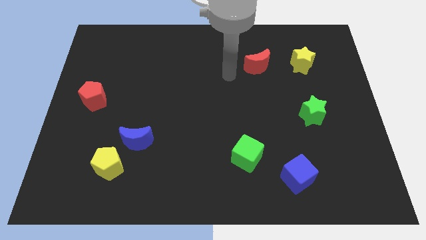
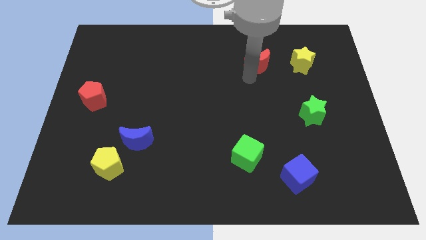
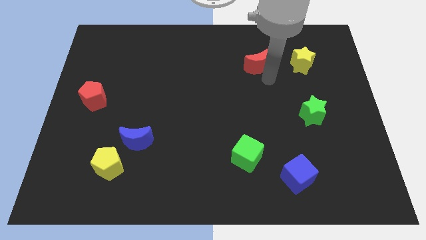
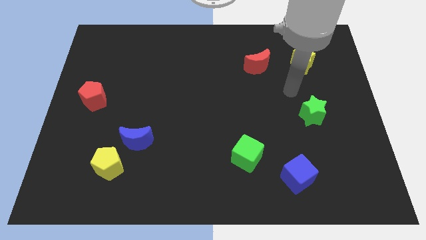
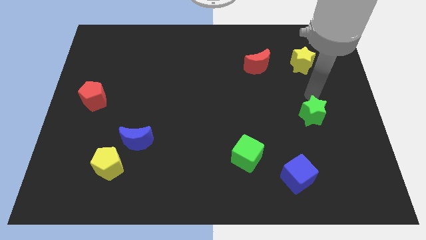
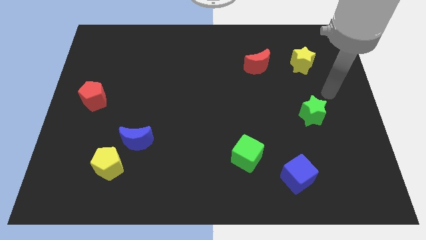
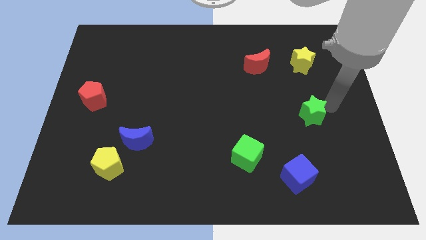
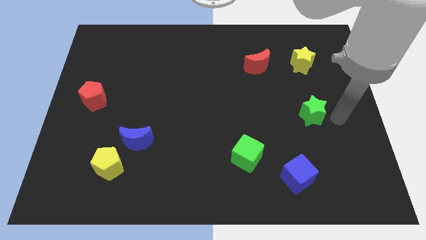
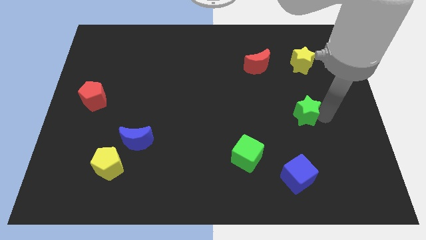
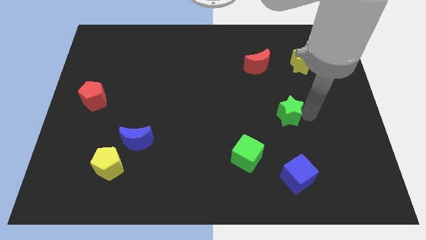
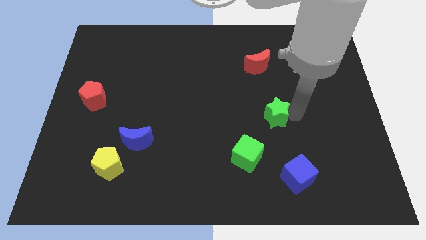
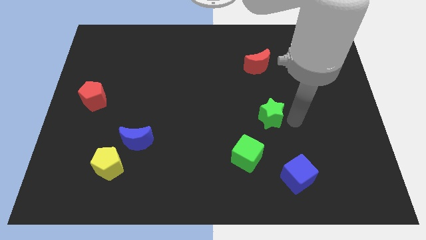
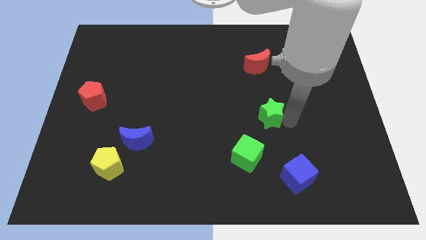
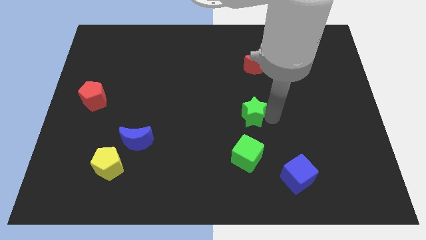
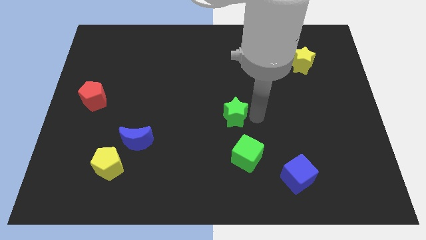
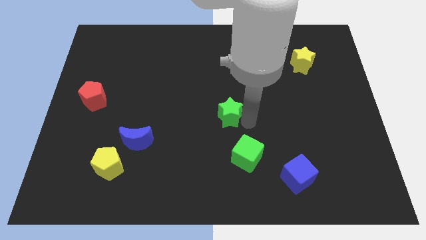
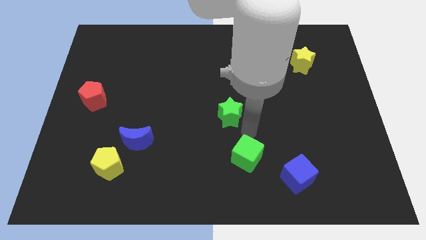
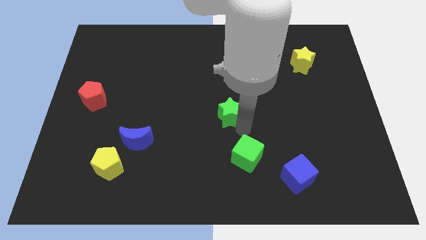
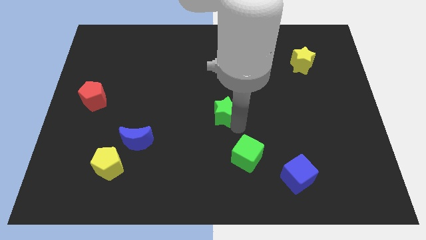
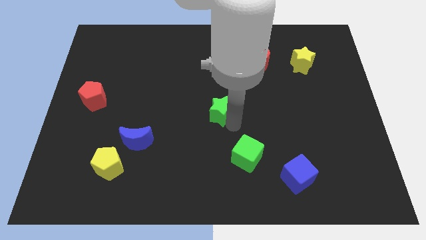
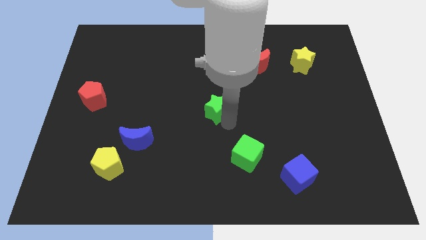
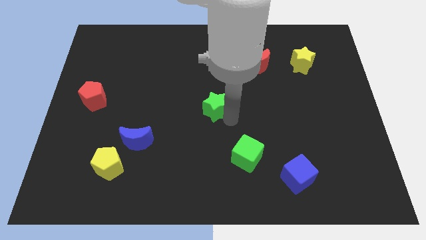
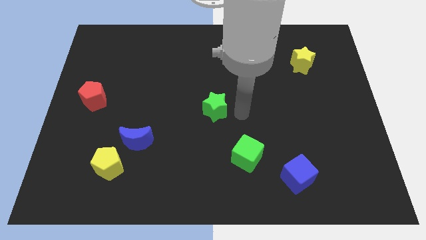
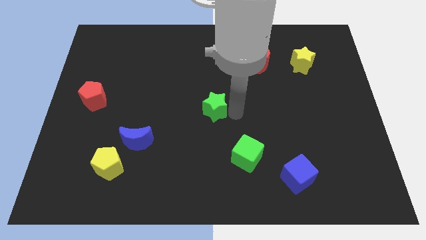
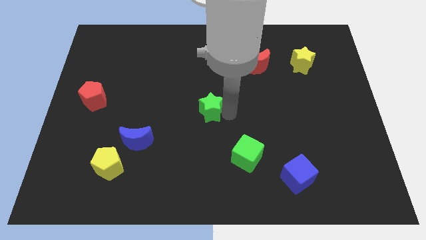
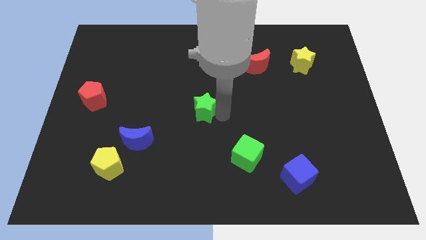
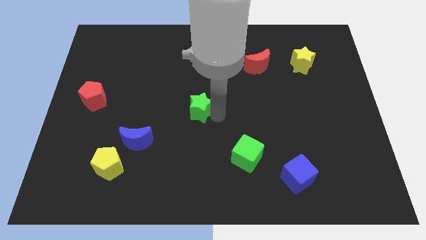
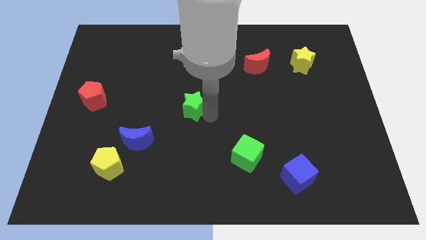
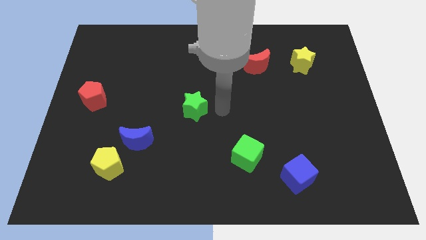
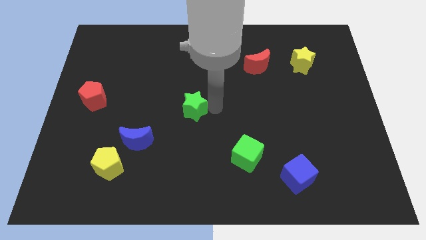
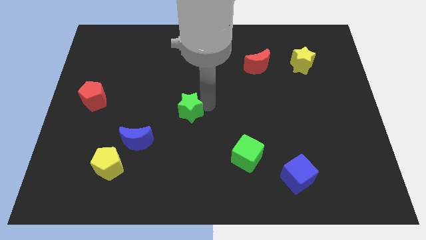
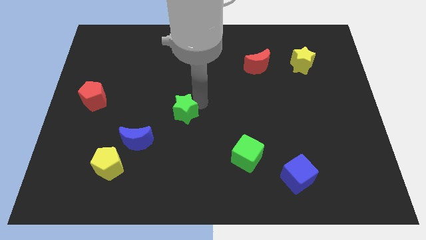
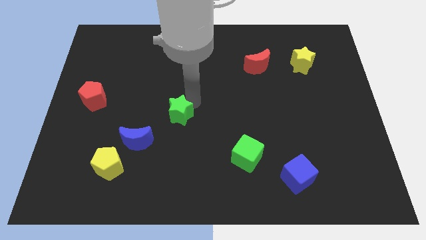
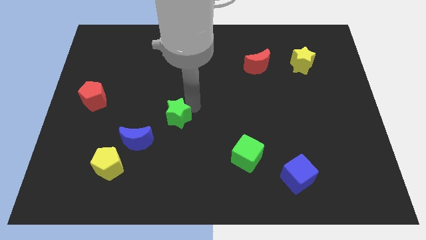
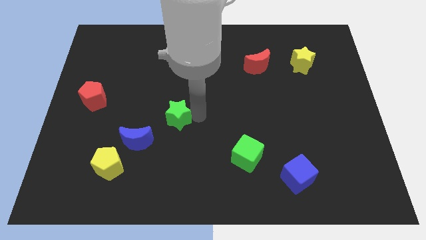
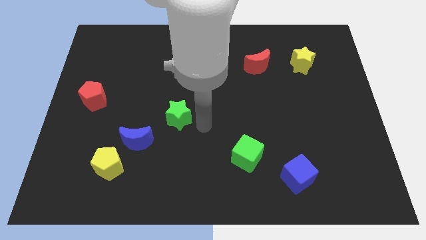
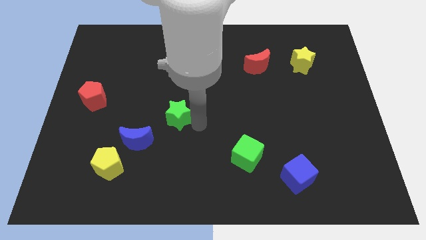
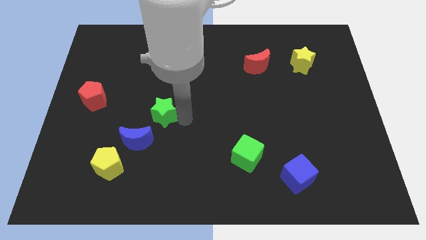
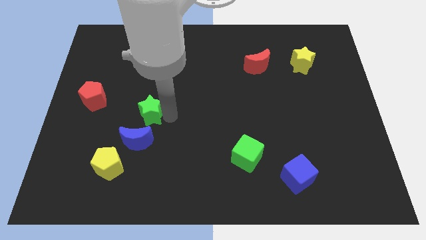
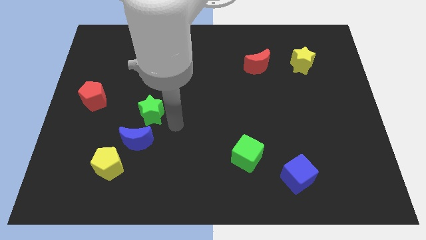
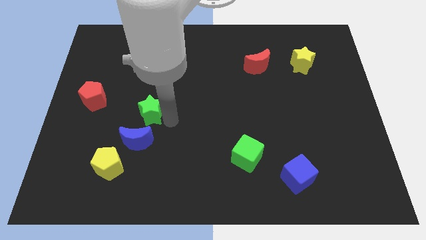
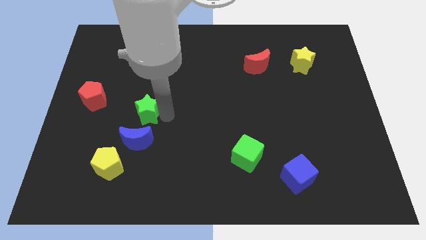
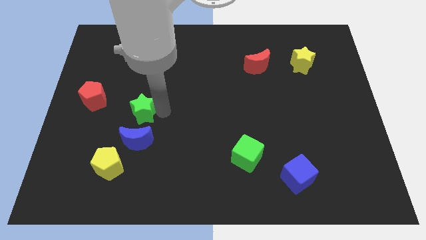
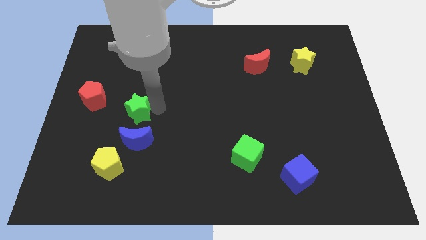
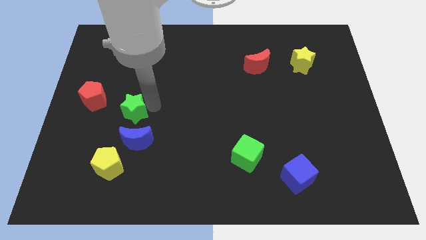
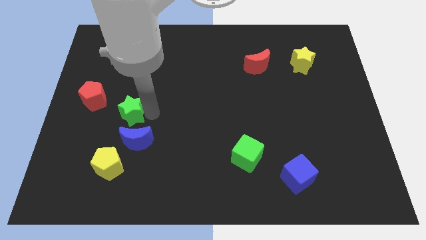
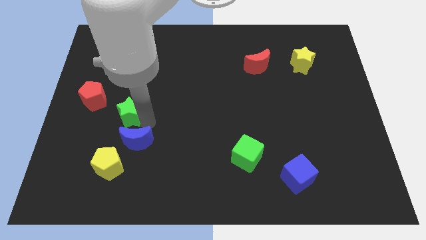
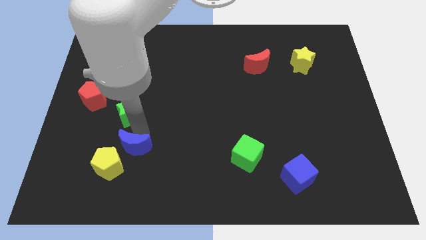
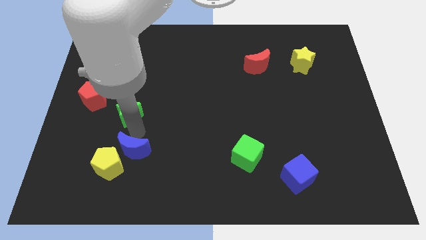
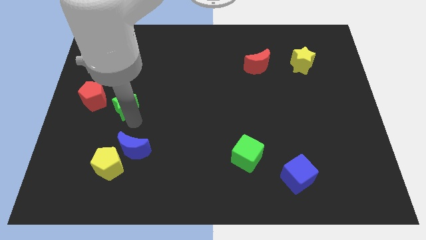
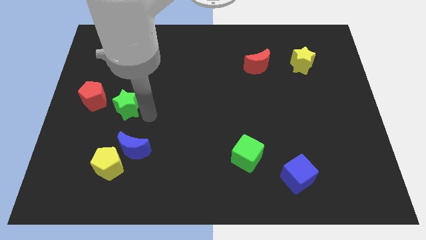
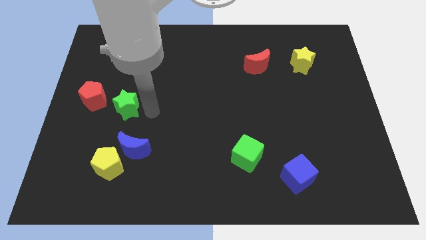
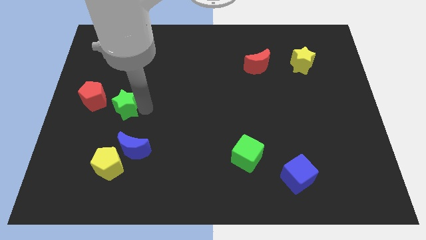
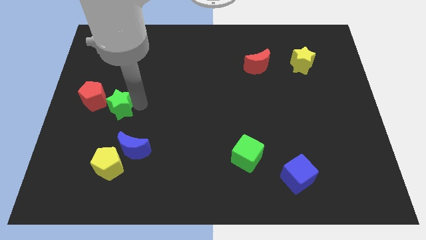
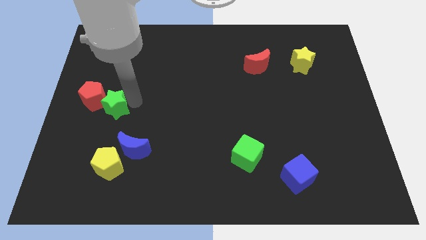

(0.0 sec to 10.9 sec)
push the green star next to the red pentagon

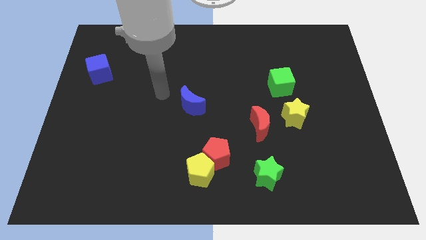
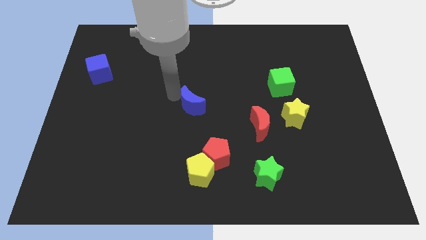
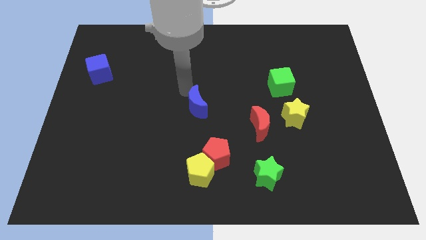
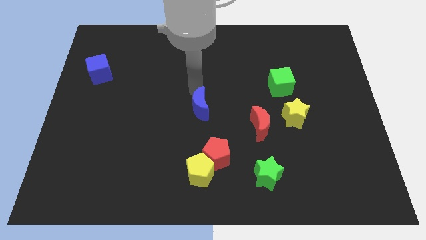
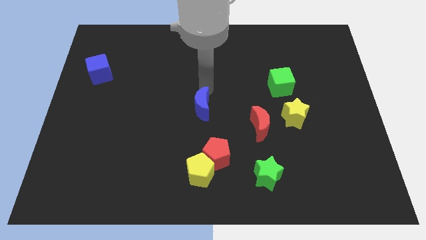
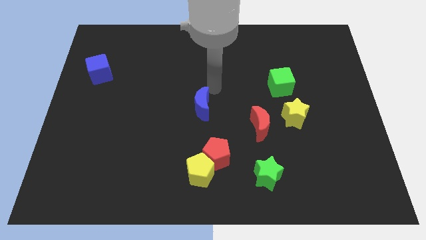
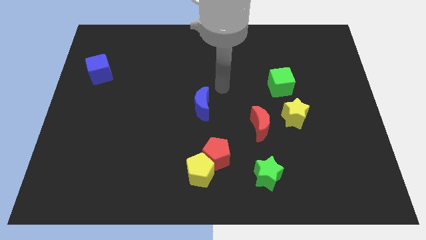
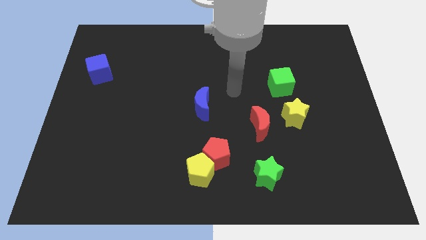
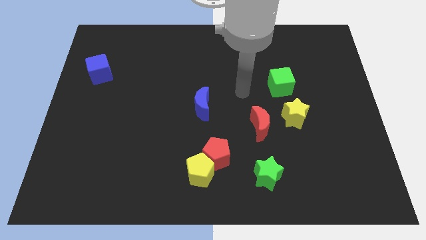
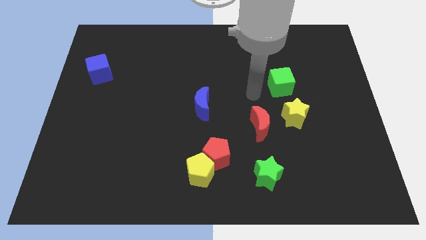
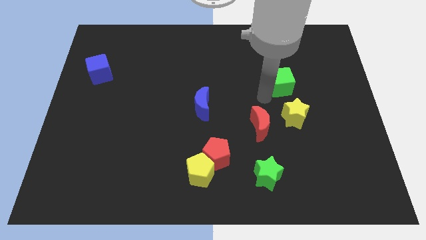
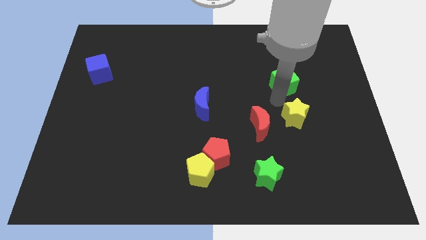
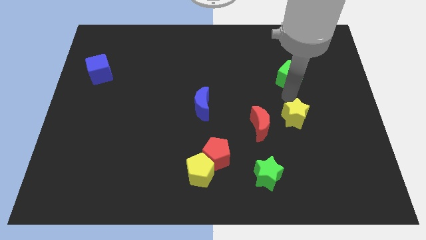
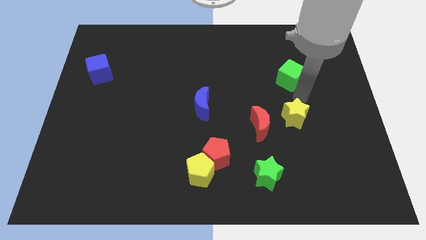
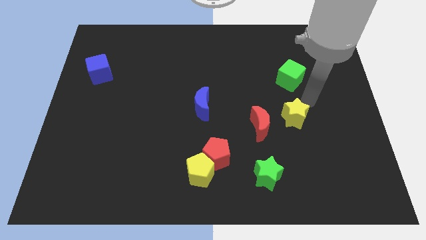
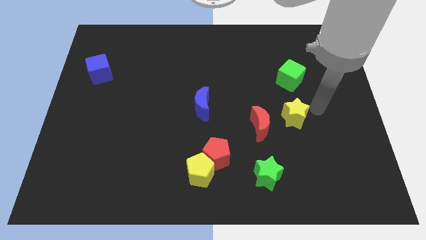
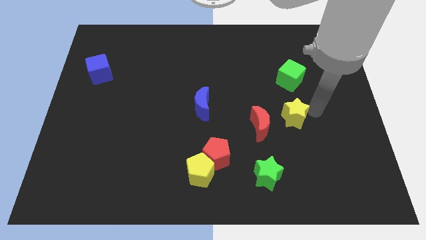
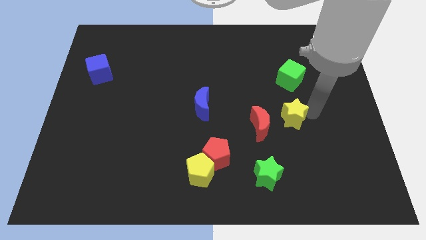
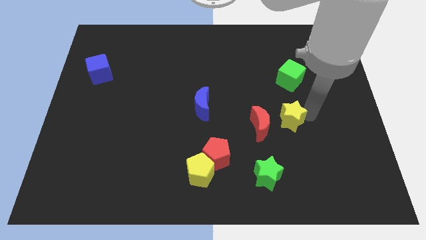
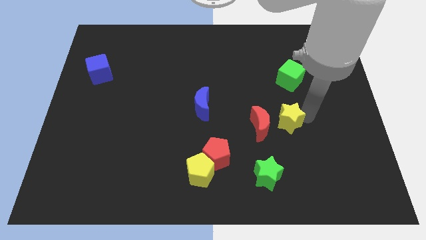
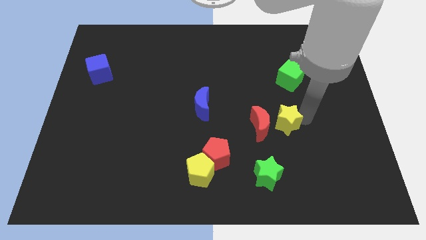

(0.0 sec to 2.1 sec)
move the yellow star towards the red moon
